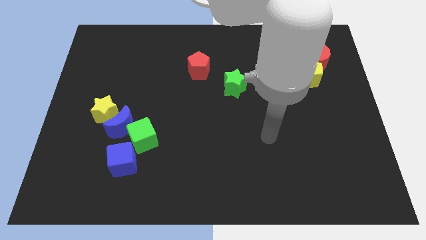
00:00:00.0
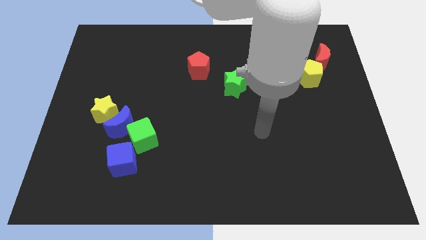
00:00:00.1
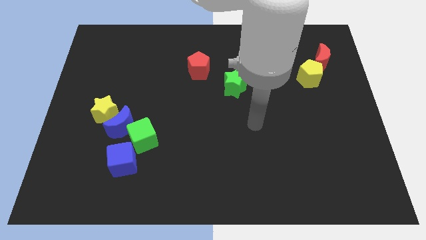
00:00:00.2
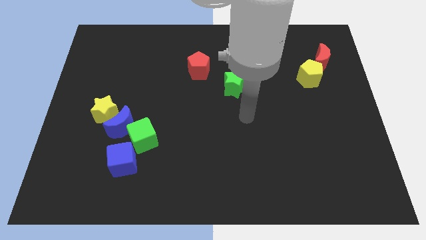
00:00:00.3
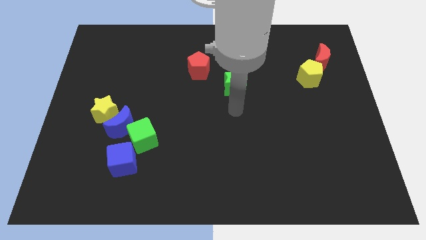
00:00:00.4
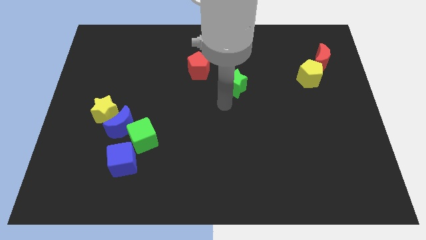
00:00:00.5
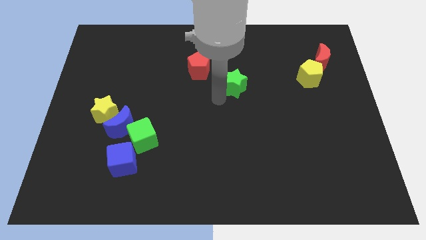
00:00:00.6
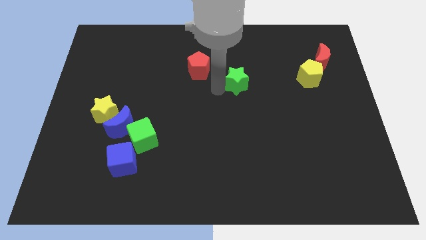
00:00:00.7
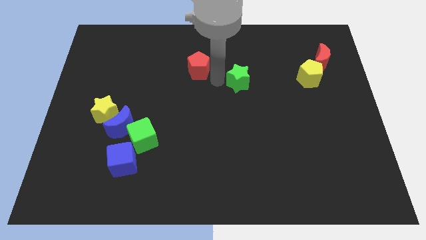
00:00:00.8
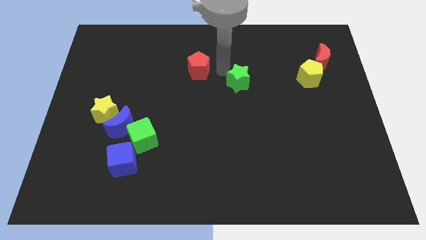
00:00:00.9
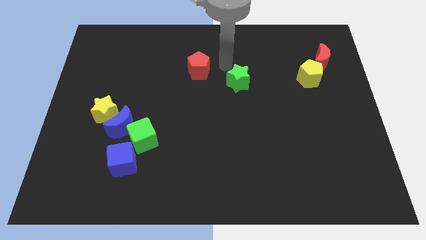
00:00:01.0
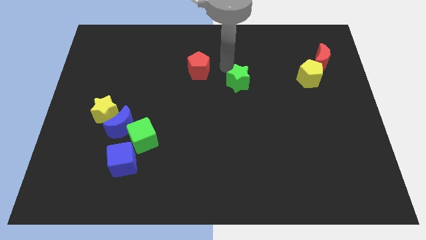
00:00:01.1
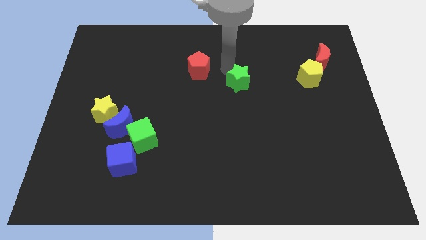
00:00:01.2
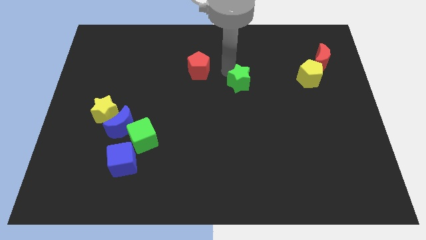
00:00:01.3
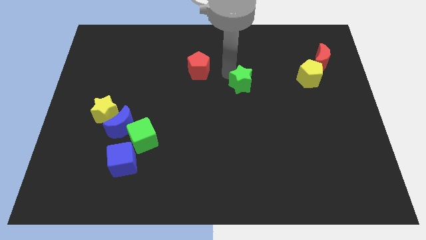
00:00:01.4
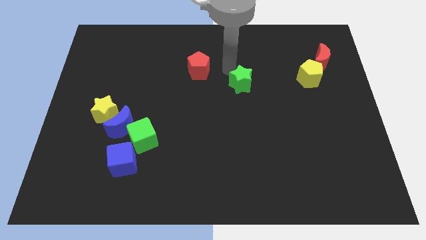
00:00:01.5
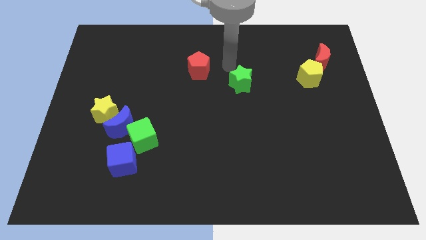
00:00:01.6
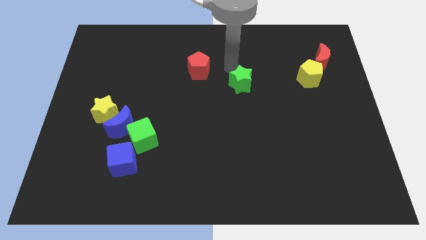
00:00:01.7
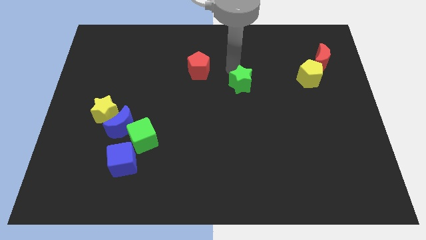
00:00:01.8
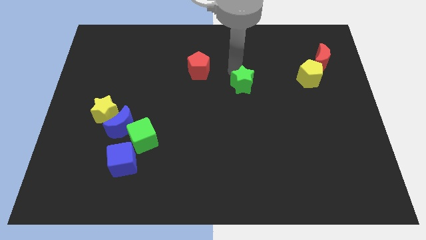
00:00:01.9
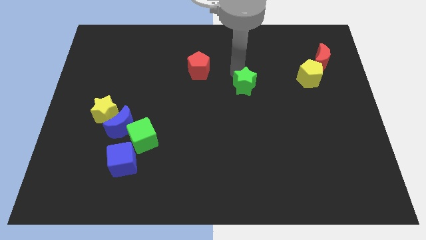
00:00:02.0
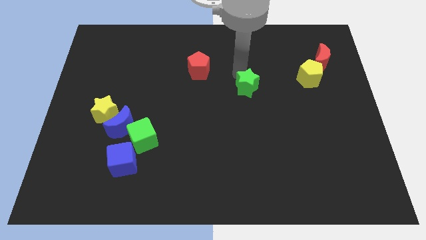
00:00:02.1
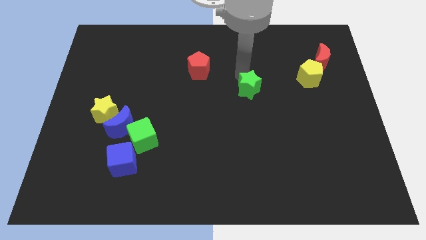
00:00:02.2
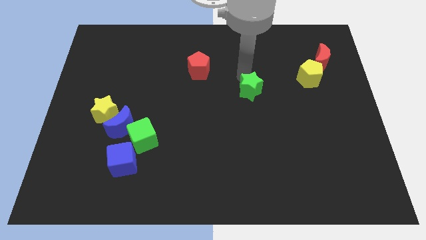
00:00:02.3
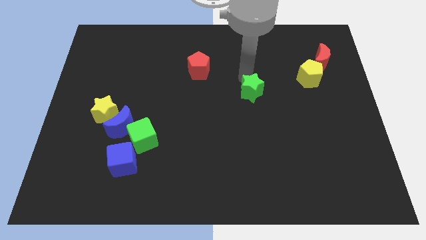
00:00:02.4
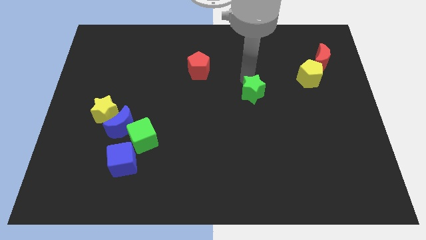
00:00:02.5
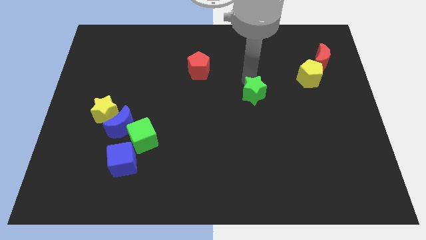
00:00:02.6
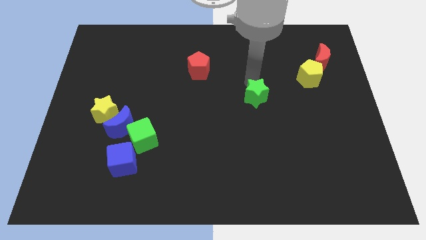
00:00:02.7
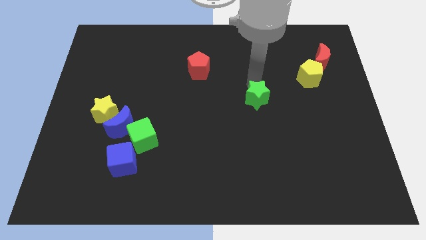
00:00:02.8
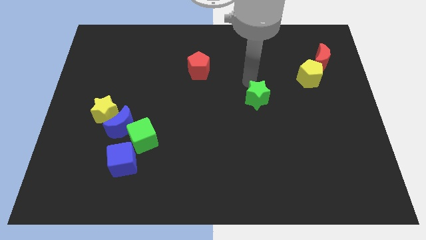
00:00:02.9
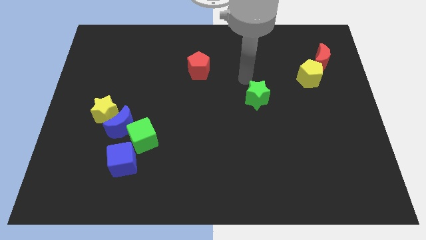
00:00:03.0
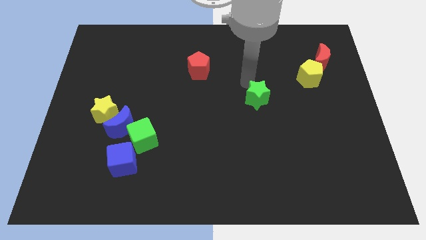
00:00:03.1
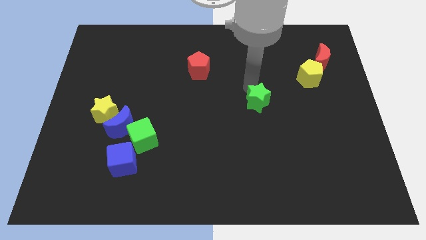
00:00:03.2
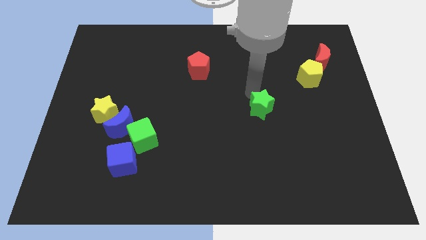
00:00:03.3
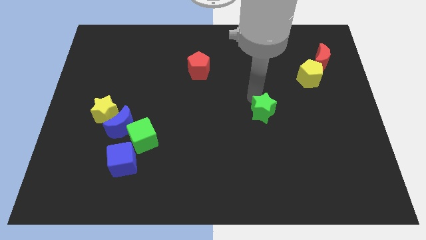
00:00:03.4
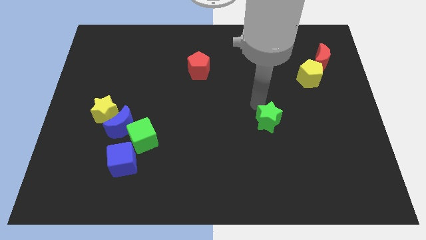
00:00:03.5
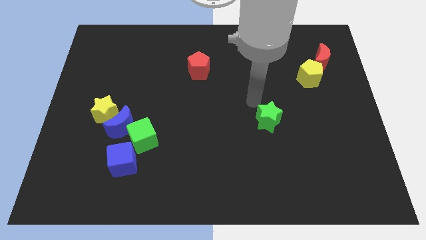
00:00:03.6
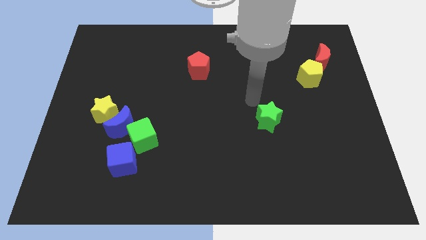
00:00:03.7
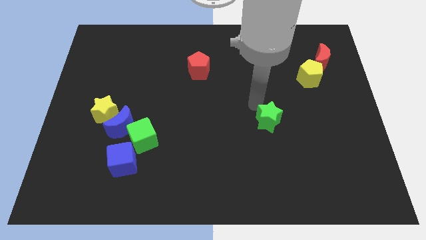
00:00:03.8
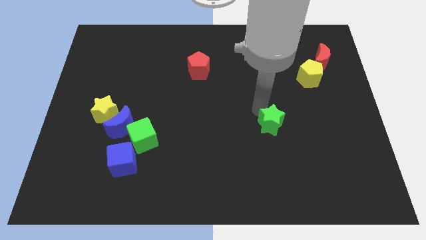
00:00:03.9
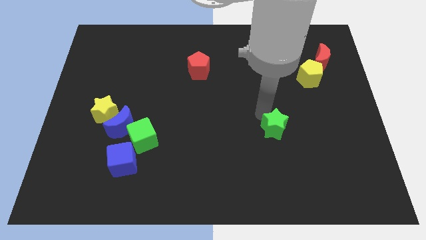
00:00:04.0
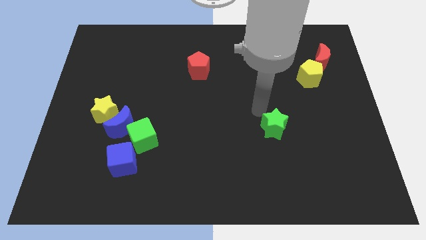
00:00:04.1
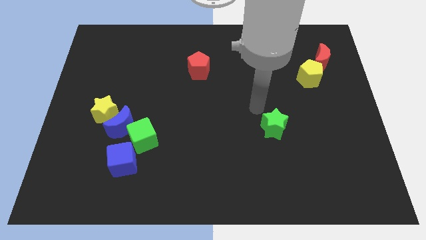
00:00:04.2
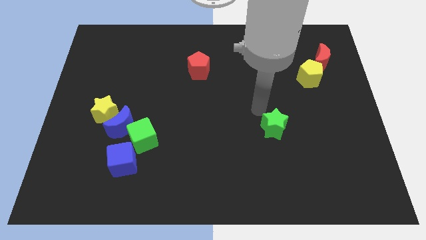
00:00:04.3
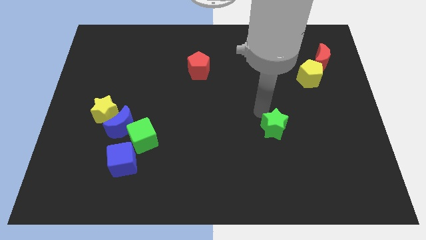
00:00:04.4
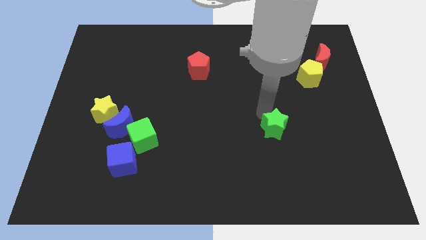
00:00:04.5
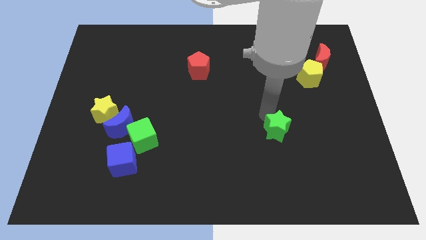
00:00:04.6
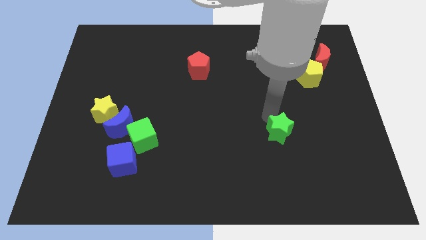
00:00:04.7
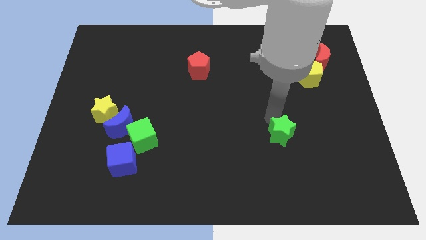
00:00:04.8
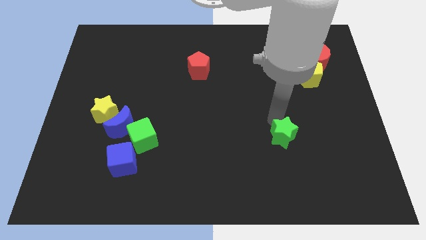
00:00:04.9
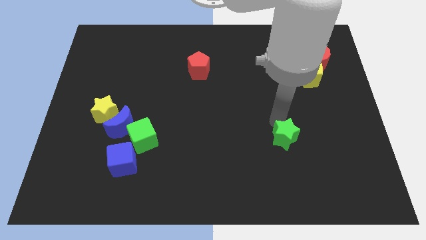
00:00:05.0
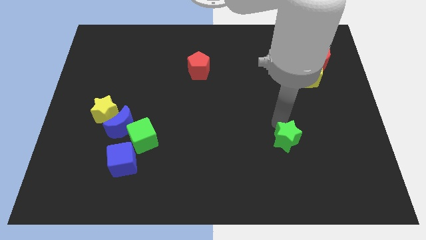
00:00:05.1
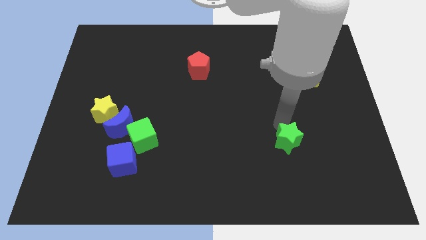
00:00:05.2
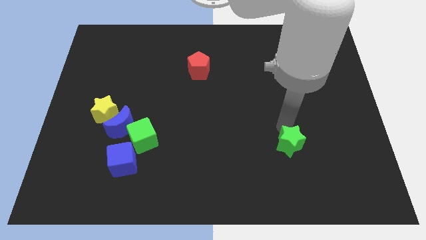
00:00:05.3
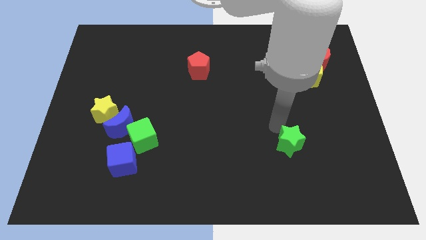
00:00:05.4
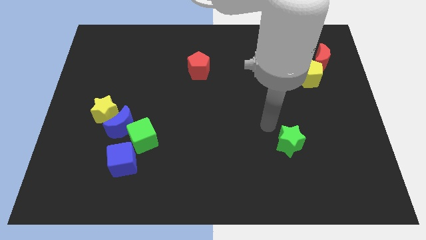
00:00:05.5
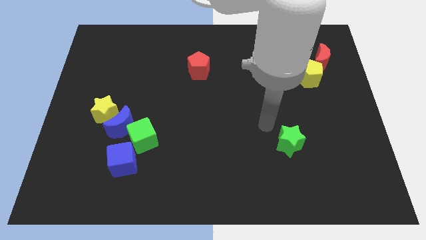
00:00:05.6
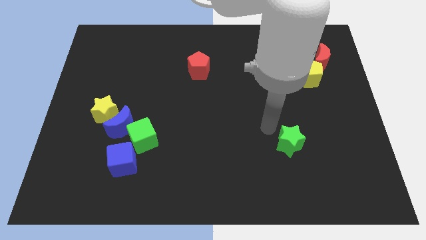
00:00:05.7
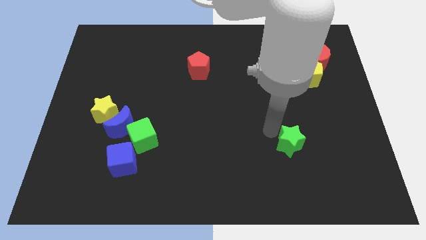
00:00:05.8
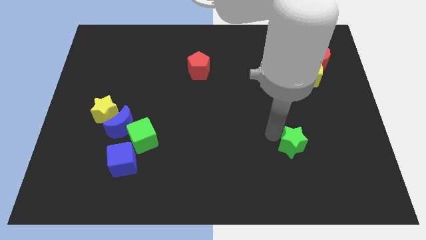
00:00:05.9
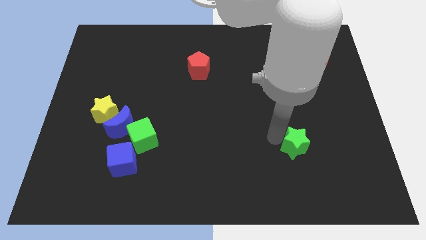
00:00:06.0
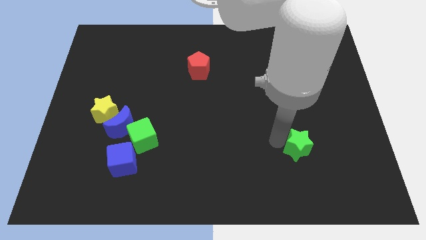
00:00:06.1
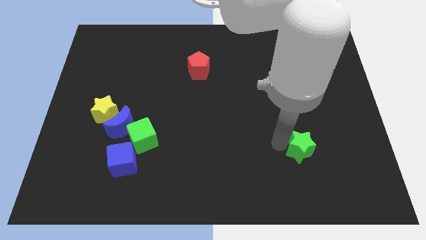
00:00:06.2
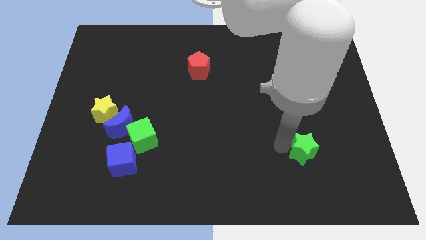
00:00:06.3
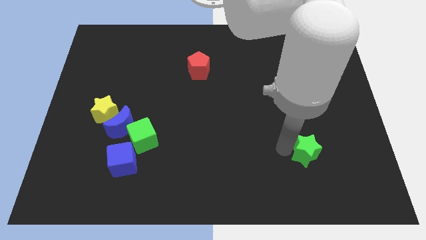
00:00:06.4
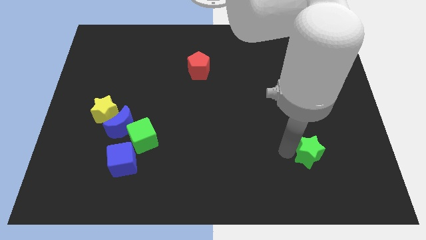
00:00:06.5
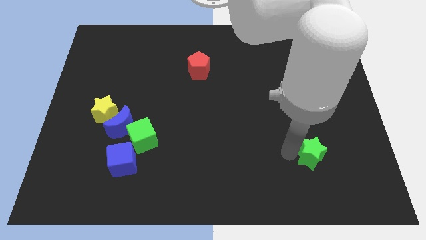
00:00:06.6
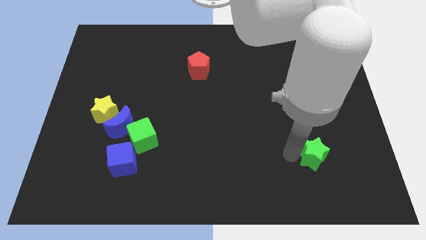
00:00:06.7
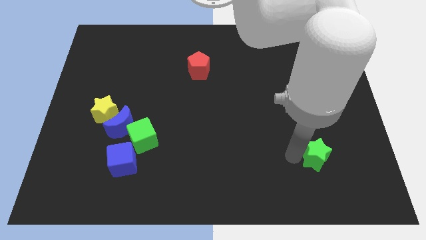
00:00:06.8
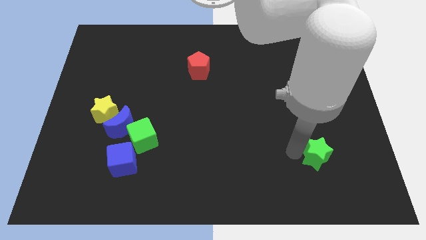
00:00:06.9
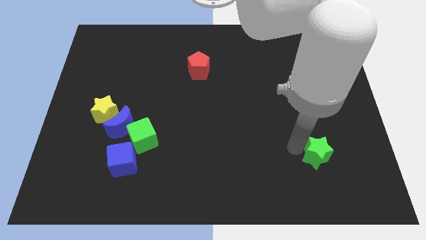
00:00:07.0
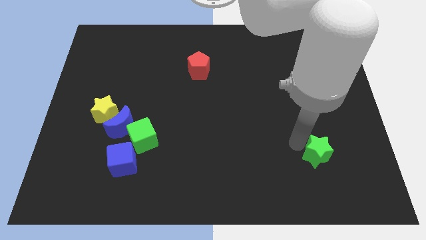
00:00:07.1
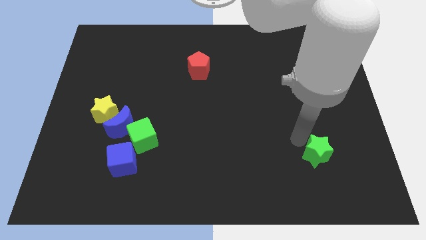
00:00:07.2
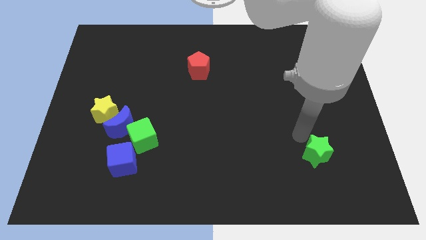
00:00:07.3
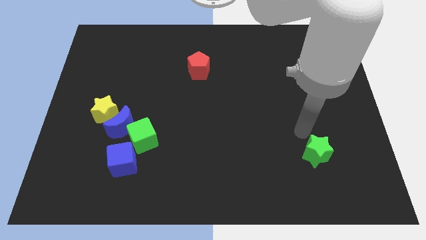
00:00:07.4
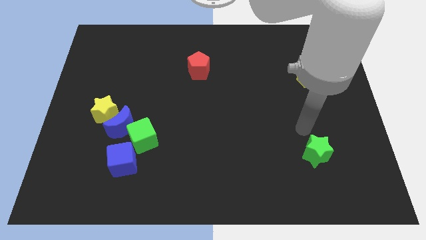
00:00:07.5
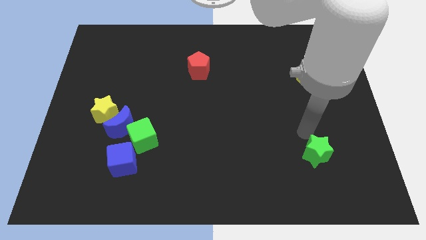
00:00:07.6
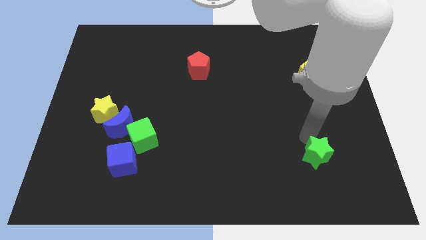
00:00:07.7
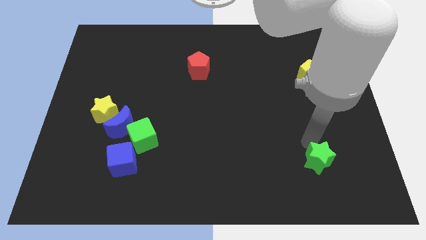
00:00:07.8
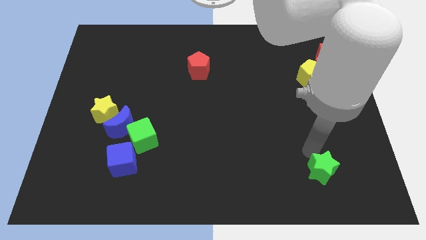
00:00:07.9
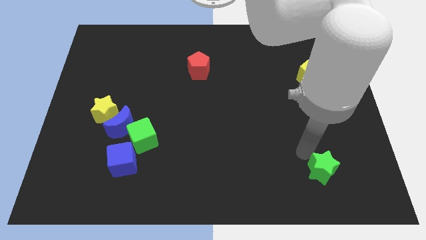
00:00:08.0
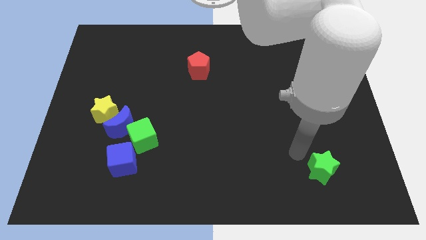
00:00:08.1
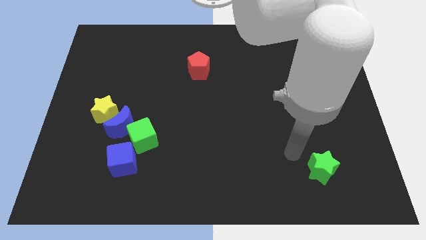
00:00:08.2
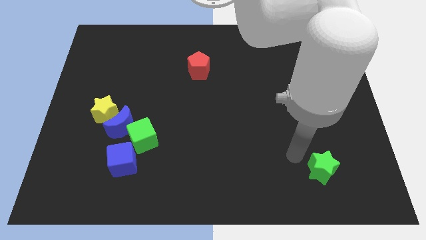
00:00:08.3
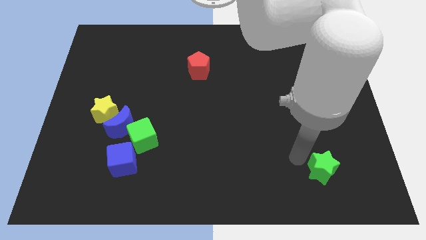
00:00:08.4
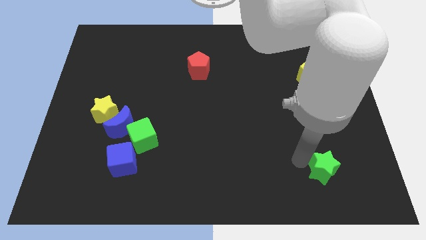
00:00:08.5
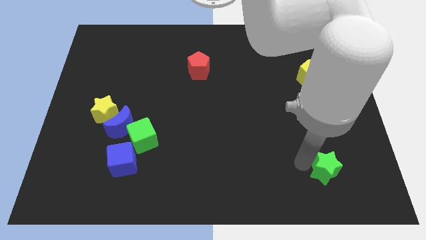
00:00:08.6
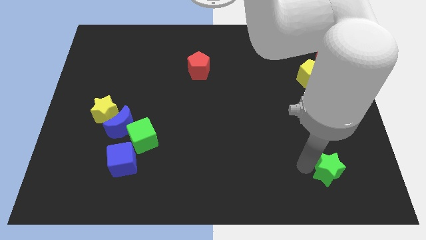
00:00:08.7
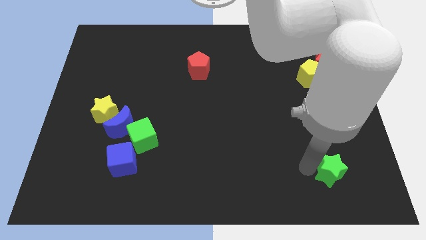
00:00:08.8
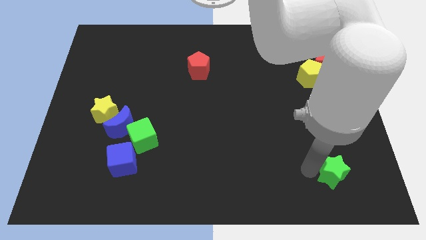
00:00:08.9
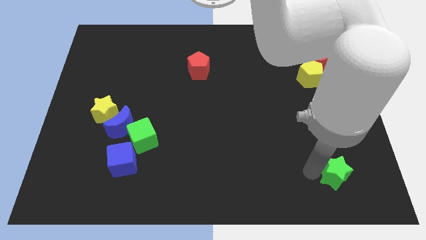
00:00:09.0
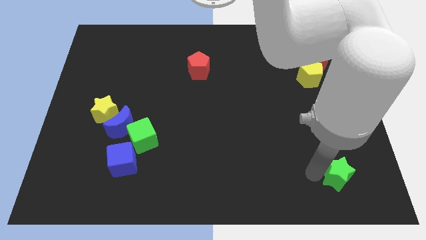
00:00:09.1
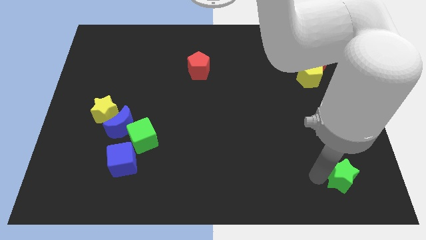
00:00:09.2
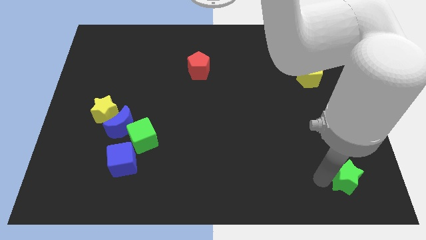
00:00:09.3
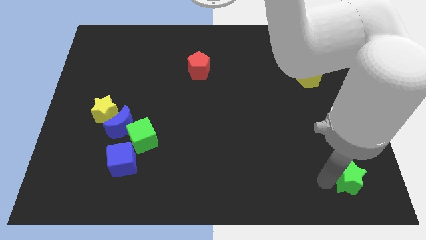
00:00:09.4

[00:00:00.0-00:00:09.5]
slide the green star to the bottom right of the board
